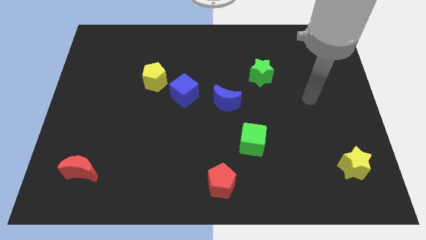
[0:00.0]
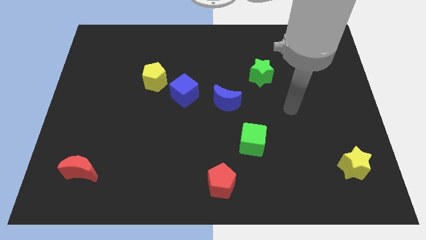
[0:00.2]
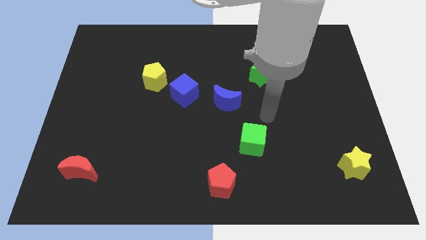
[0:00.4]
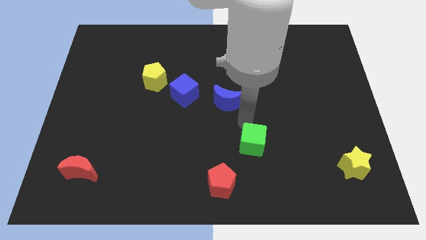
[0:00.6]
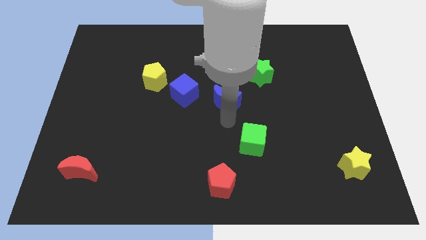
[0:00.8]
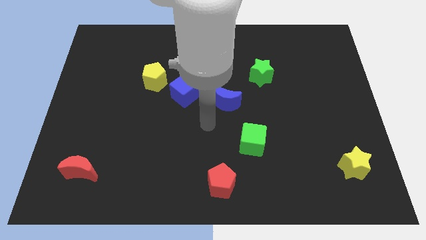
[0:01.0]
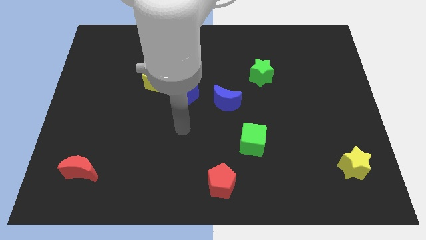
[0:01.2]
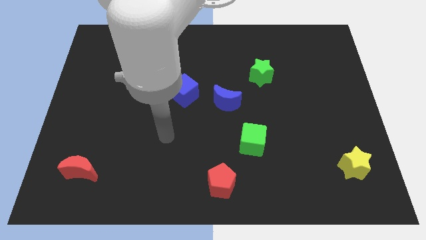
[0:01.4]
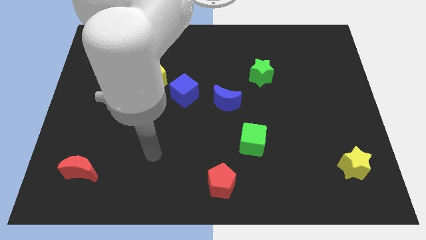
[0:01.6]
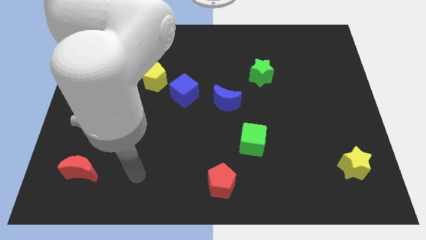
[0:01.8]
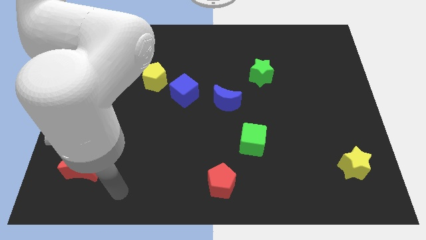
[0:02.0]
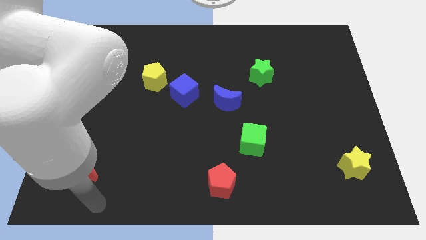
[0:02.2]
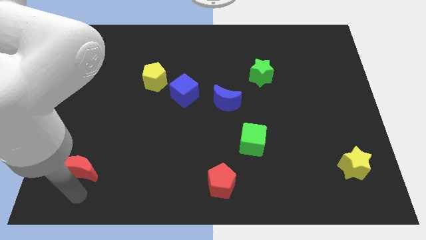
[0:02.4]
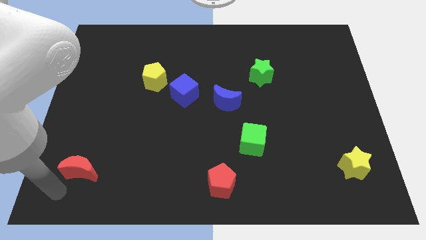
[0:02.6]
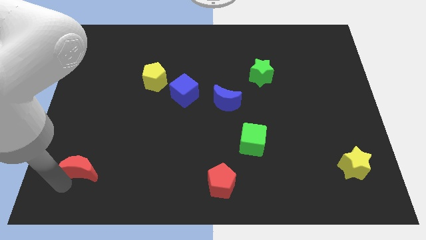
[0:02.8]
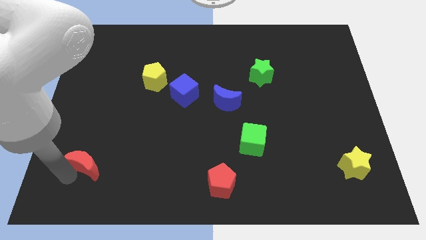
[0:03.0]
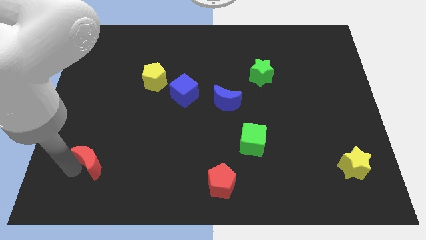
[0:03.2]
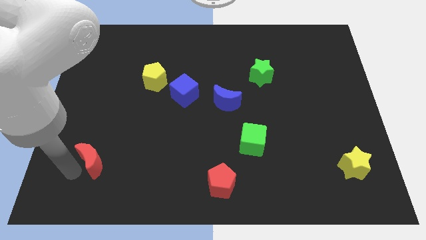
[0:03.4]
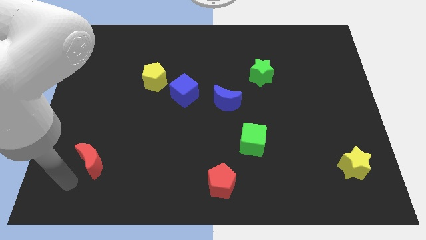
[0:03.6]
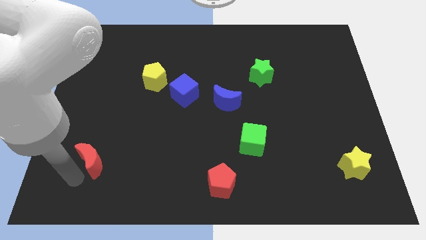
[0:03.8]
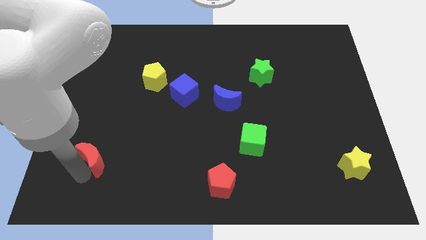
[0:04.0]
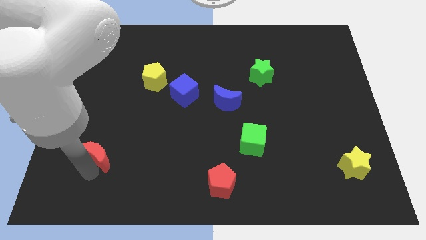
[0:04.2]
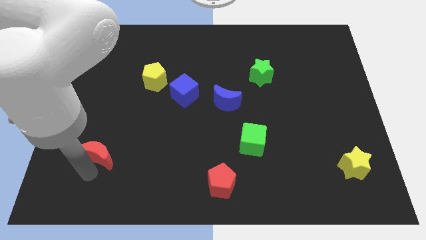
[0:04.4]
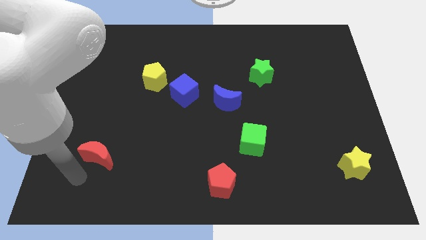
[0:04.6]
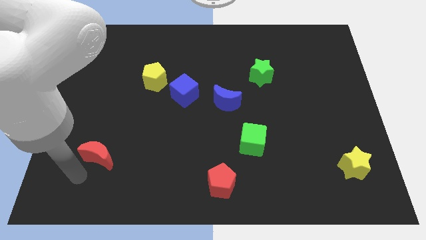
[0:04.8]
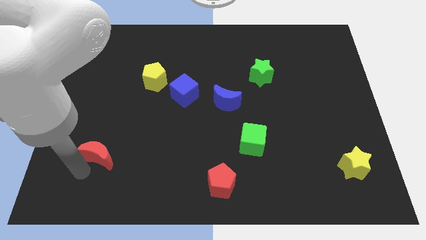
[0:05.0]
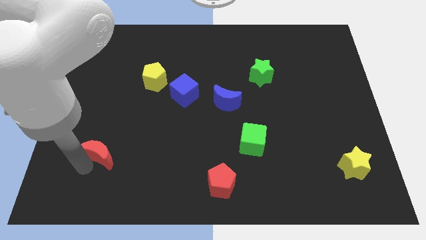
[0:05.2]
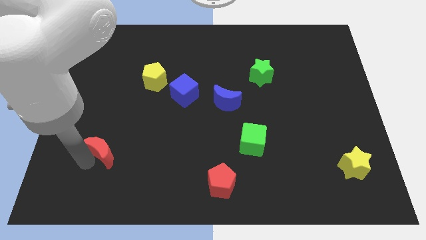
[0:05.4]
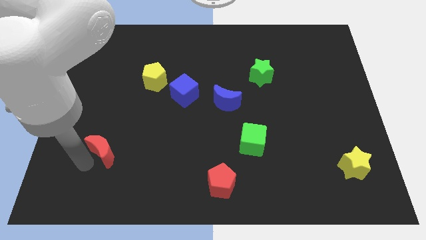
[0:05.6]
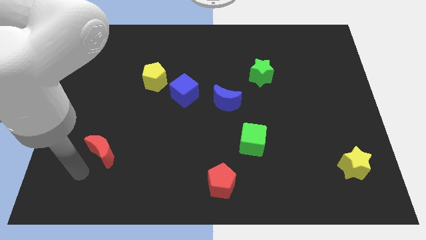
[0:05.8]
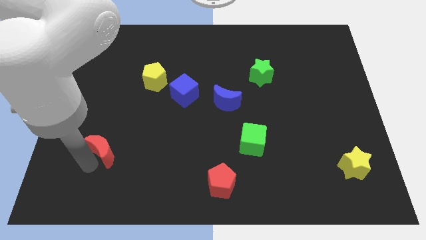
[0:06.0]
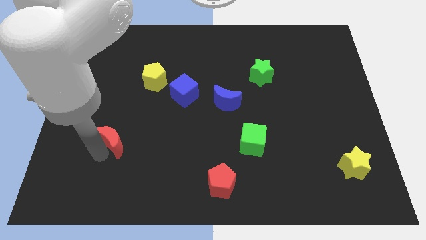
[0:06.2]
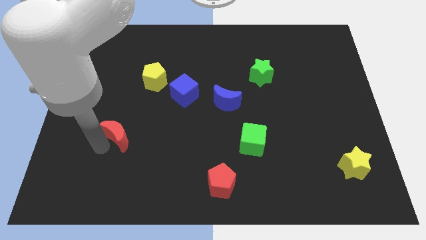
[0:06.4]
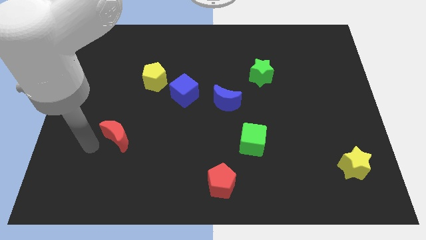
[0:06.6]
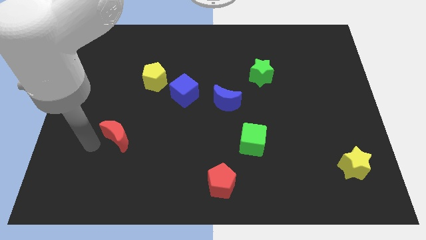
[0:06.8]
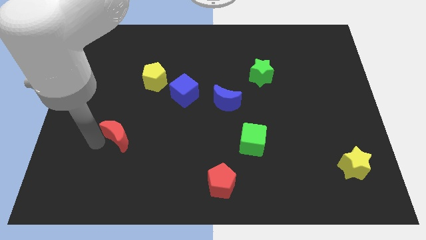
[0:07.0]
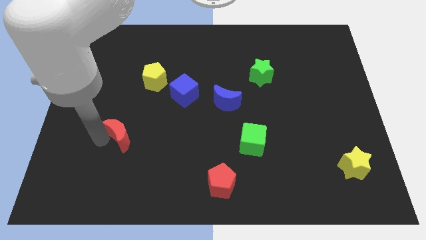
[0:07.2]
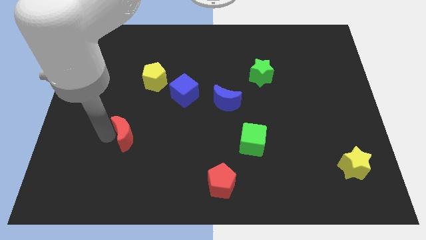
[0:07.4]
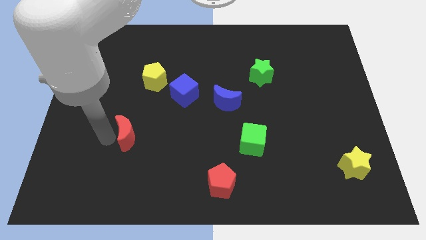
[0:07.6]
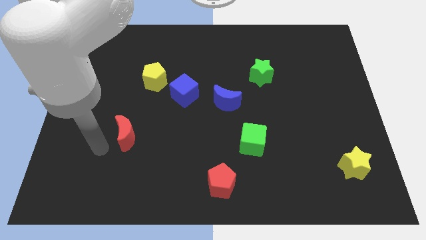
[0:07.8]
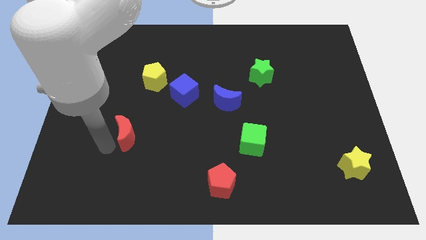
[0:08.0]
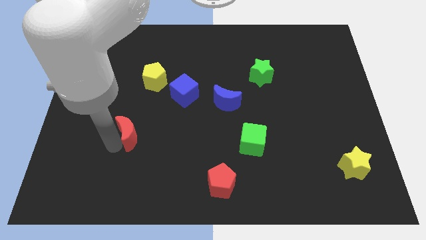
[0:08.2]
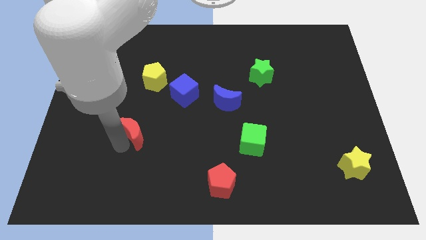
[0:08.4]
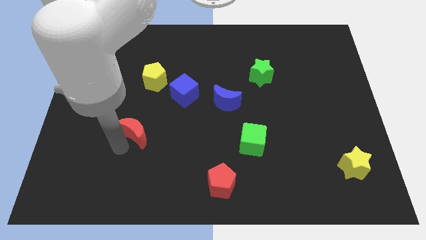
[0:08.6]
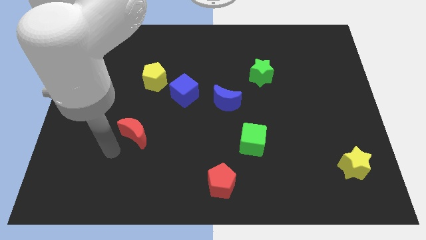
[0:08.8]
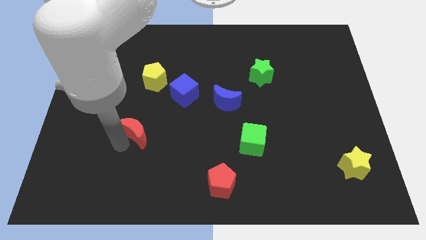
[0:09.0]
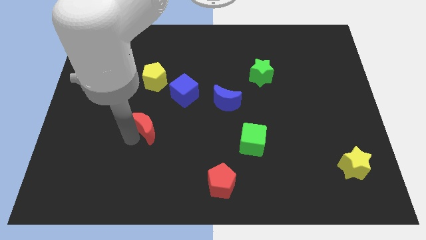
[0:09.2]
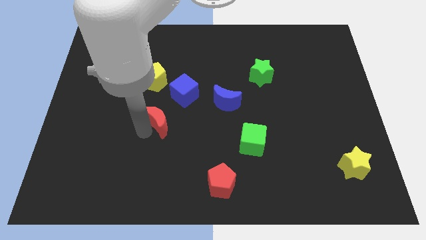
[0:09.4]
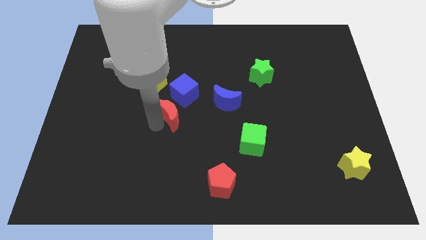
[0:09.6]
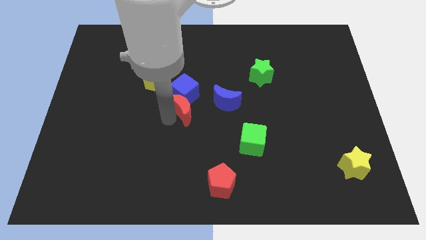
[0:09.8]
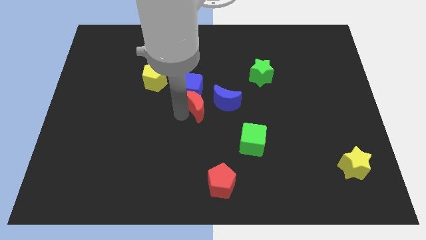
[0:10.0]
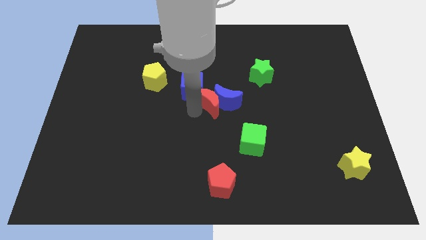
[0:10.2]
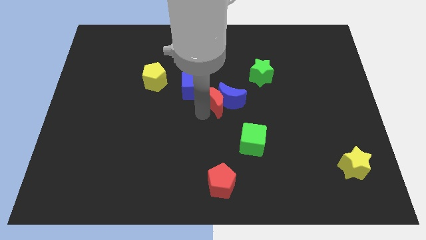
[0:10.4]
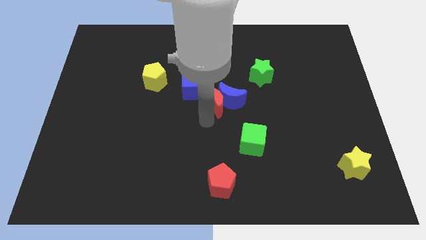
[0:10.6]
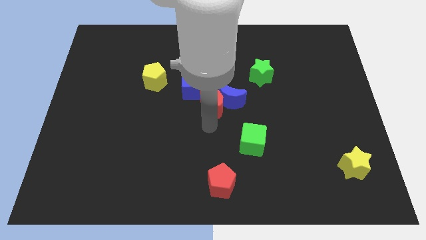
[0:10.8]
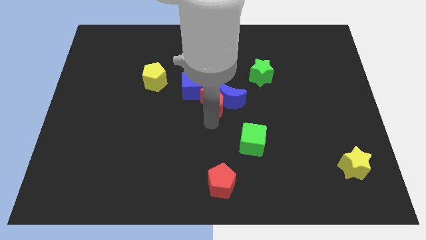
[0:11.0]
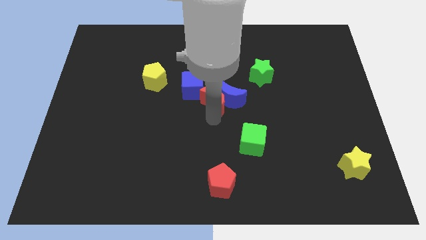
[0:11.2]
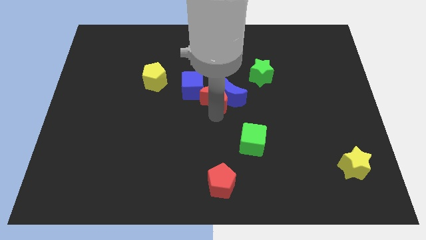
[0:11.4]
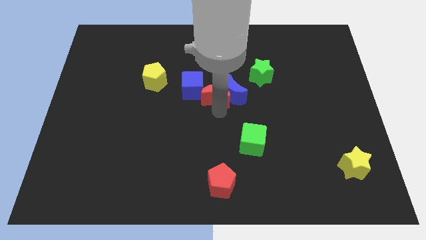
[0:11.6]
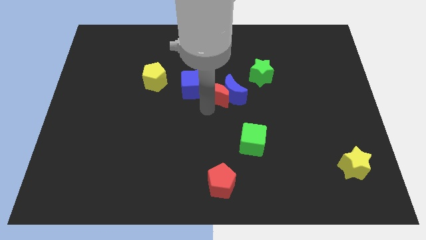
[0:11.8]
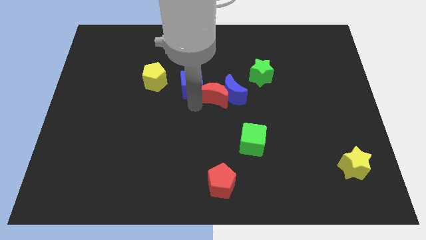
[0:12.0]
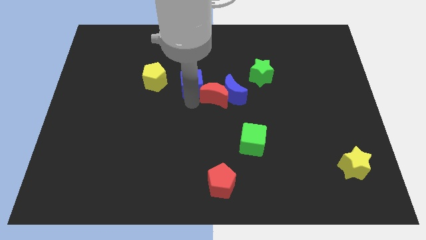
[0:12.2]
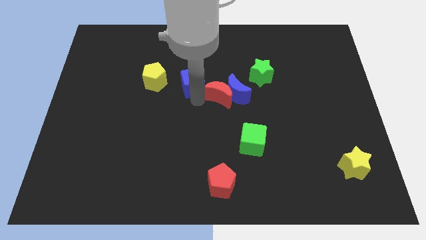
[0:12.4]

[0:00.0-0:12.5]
push the red moon to the bottom left of the green star

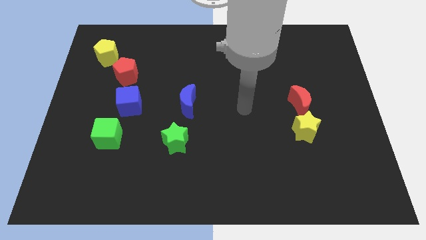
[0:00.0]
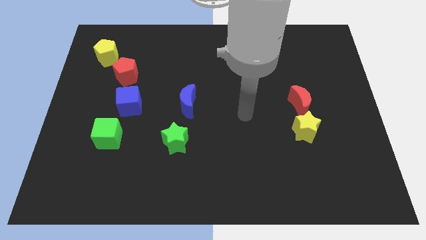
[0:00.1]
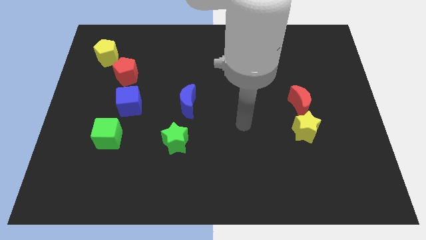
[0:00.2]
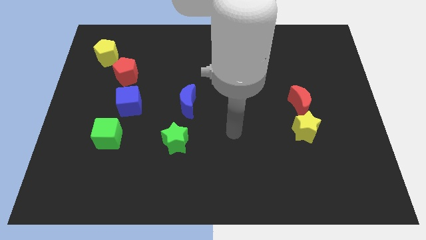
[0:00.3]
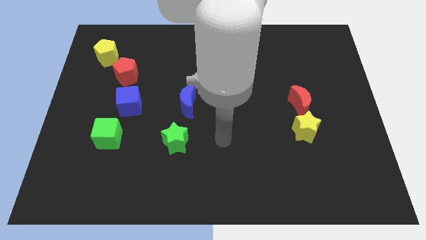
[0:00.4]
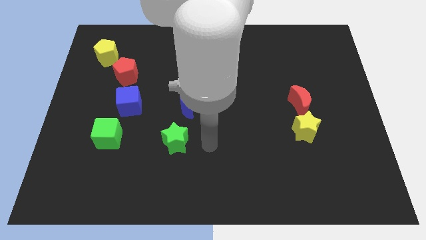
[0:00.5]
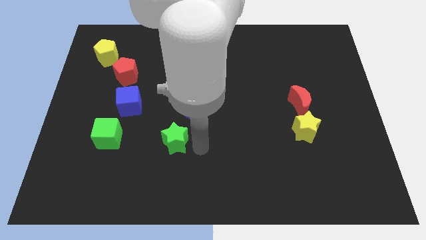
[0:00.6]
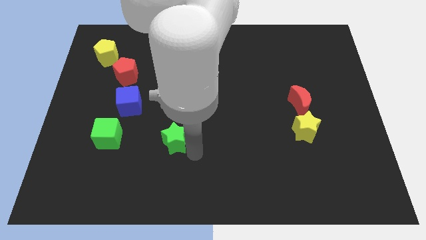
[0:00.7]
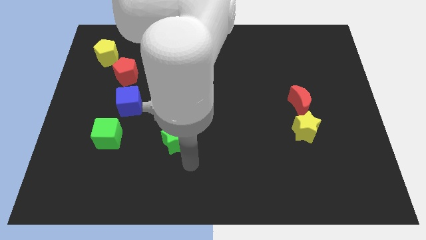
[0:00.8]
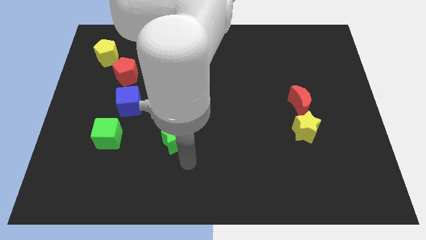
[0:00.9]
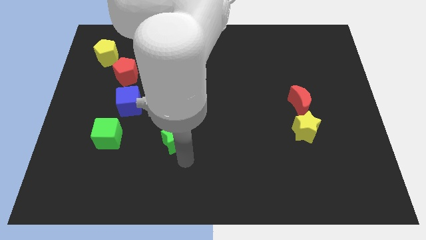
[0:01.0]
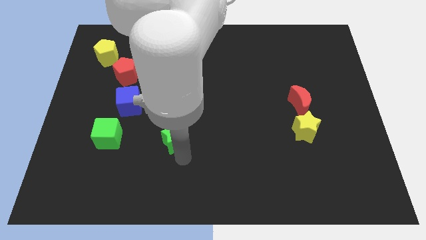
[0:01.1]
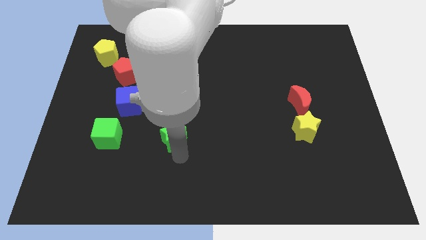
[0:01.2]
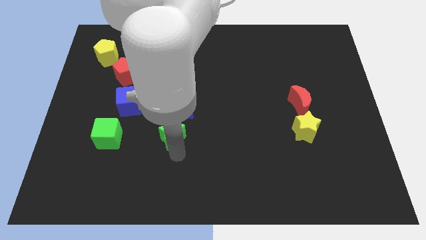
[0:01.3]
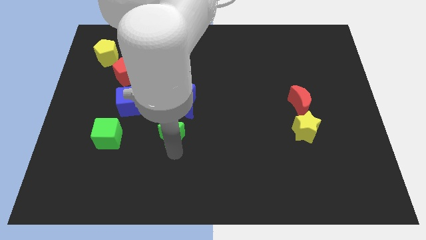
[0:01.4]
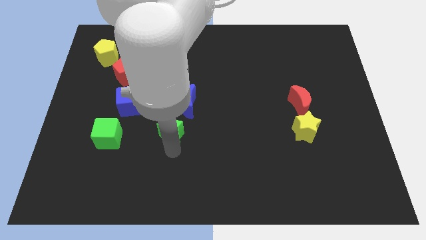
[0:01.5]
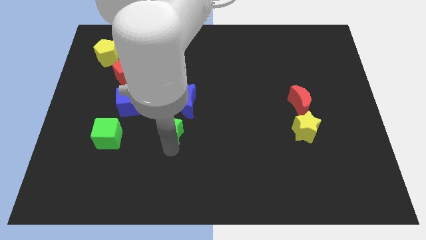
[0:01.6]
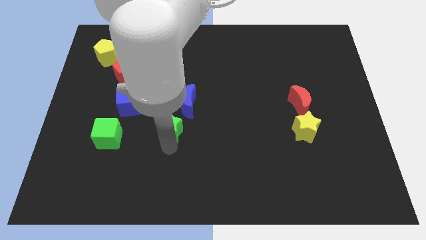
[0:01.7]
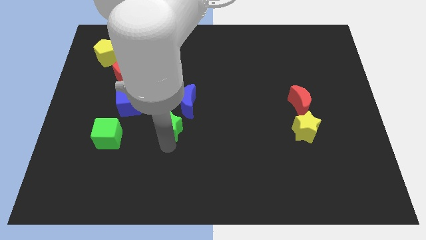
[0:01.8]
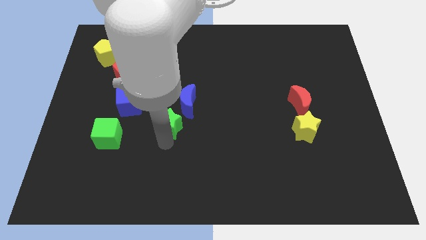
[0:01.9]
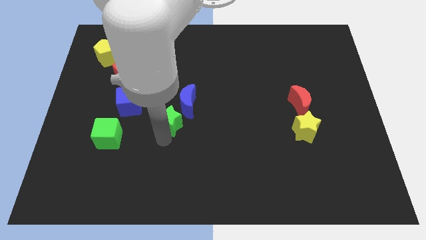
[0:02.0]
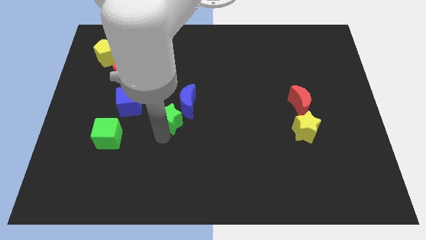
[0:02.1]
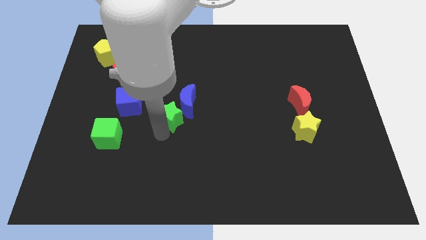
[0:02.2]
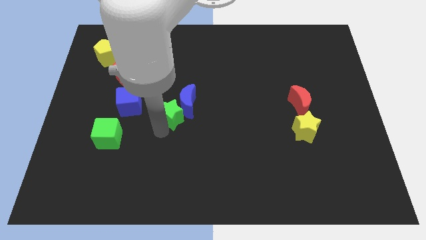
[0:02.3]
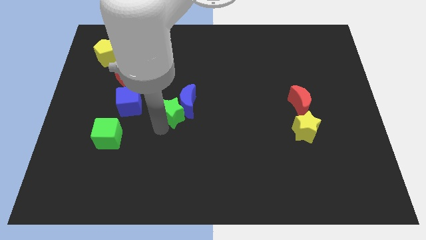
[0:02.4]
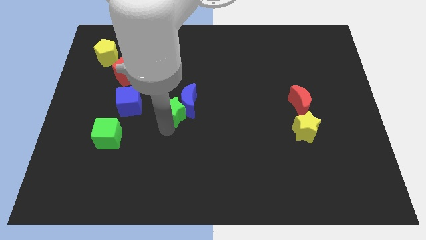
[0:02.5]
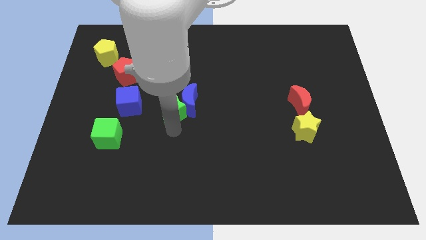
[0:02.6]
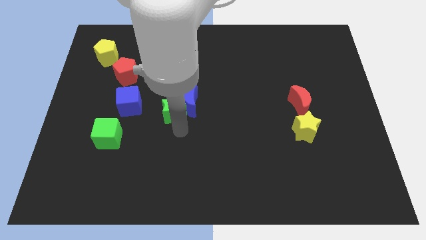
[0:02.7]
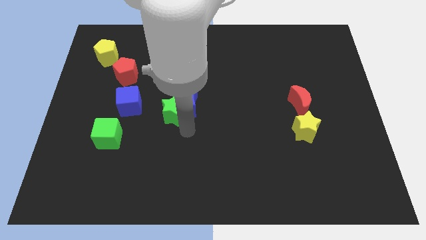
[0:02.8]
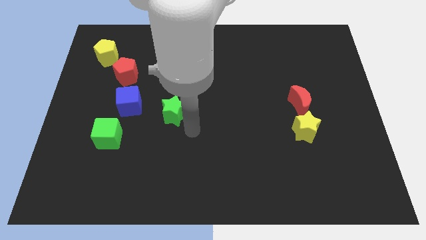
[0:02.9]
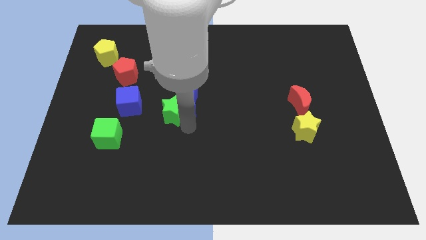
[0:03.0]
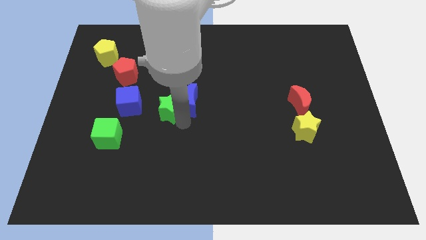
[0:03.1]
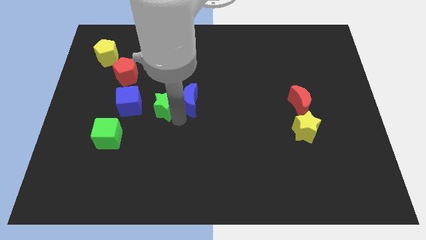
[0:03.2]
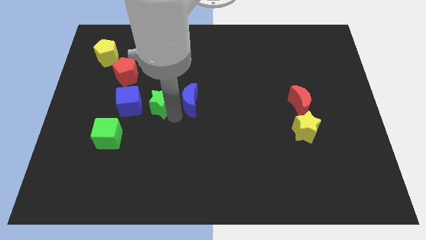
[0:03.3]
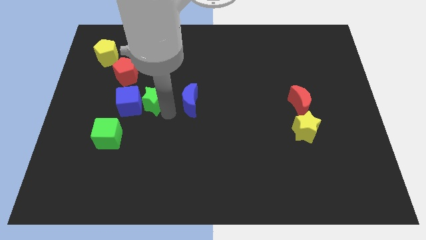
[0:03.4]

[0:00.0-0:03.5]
put the green star to the top right side of the blue cube
